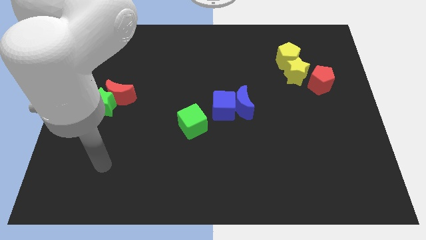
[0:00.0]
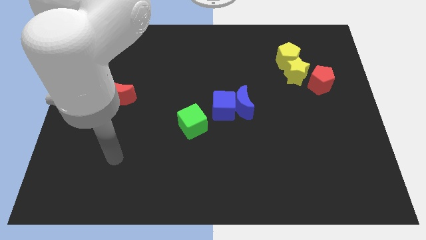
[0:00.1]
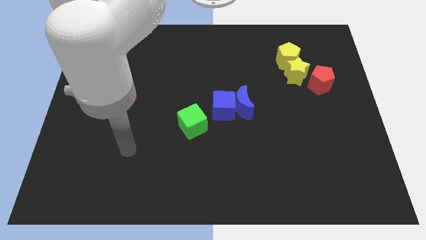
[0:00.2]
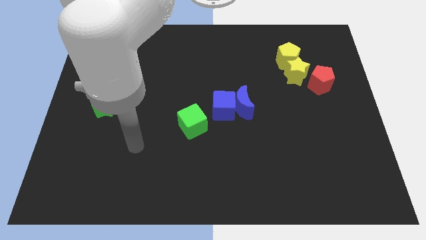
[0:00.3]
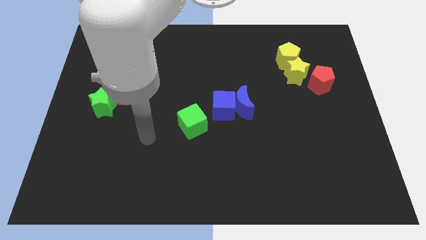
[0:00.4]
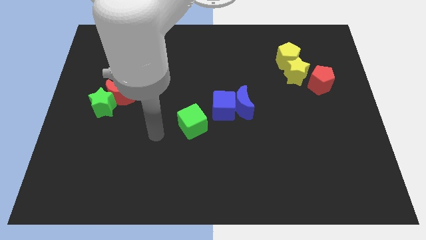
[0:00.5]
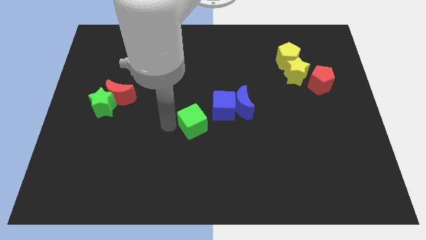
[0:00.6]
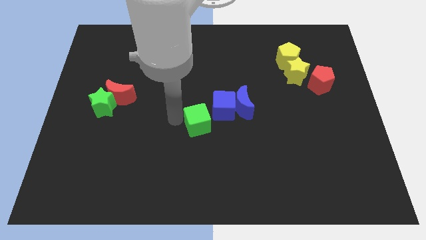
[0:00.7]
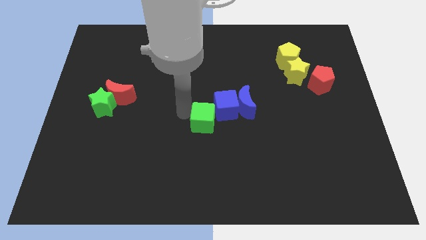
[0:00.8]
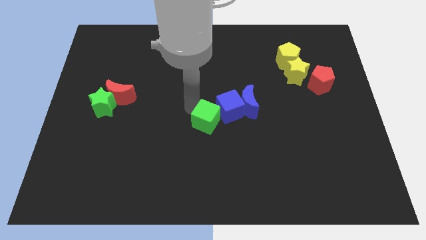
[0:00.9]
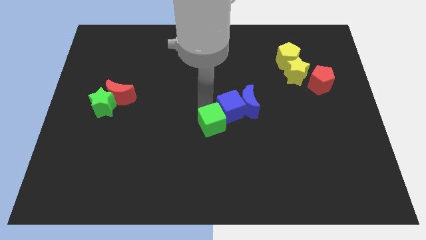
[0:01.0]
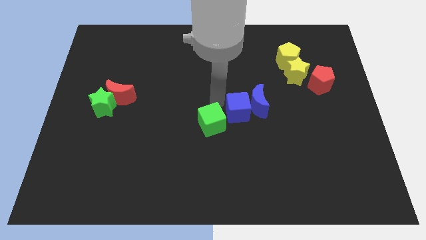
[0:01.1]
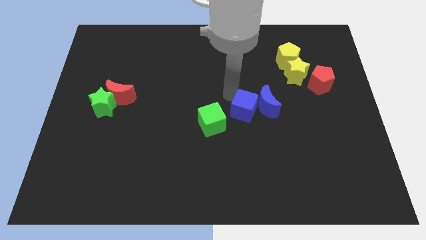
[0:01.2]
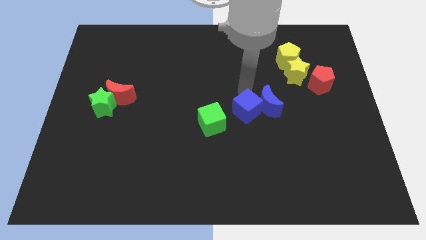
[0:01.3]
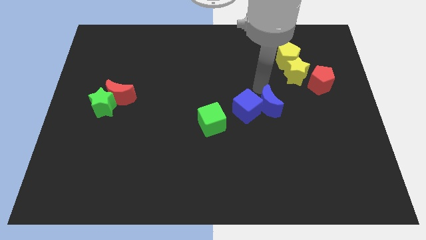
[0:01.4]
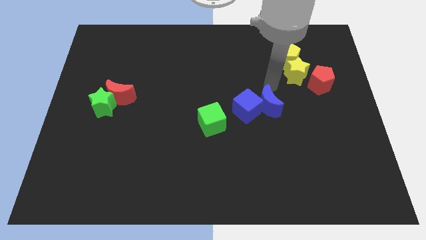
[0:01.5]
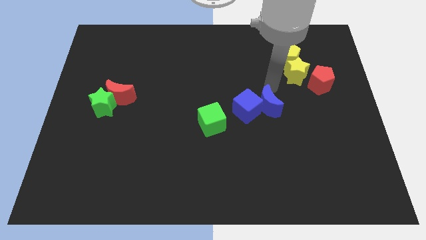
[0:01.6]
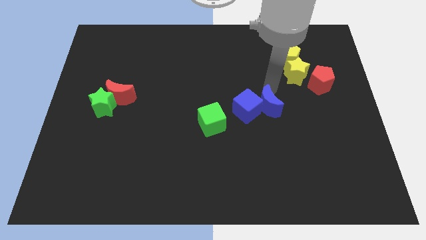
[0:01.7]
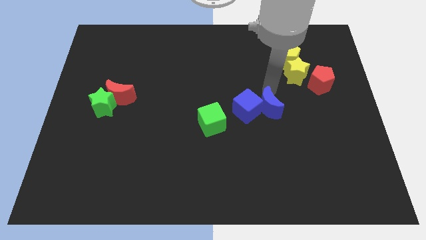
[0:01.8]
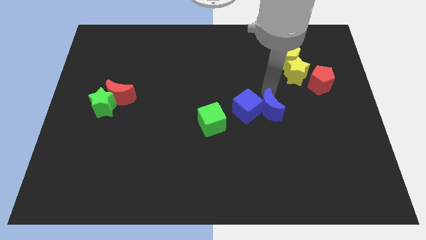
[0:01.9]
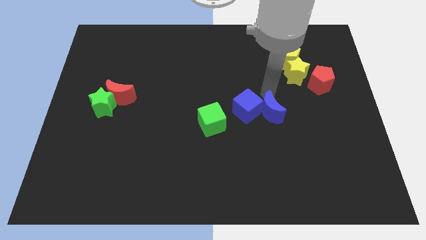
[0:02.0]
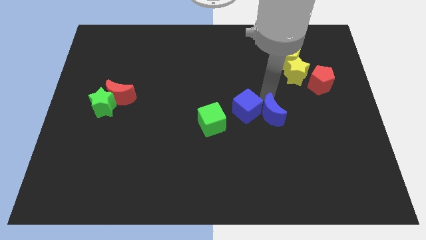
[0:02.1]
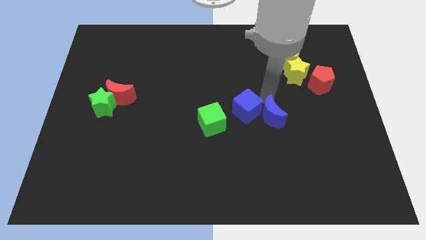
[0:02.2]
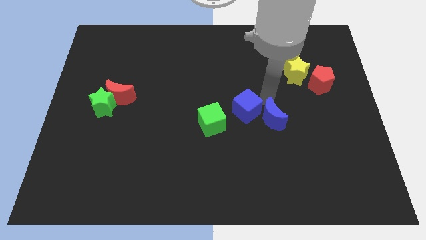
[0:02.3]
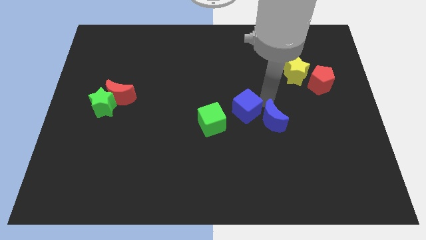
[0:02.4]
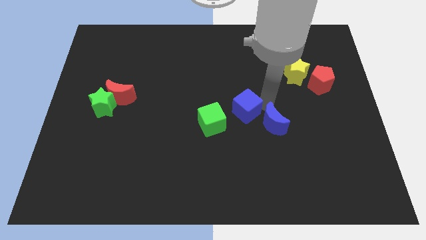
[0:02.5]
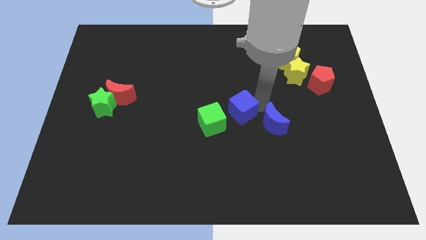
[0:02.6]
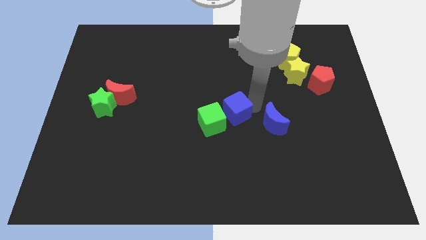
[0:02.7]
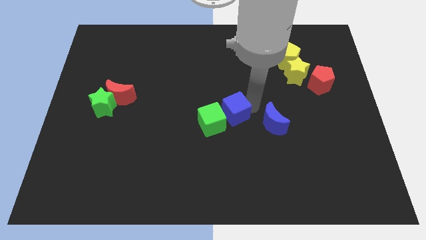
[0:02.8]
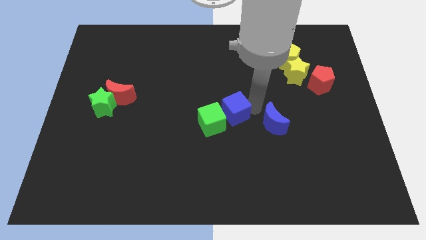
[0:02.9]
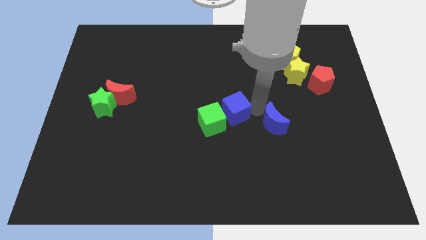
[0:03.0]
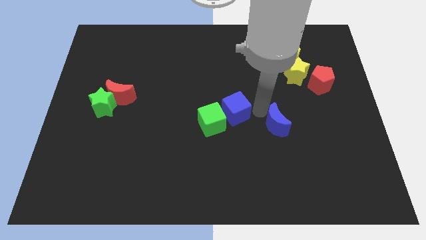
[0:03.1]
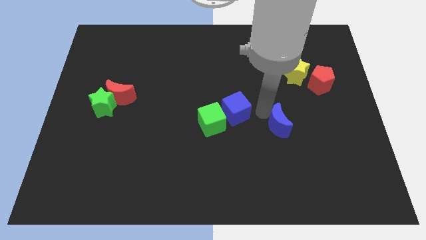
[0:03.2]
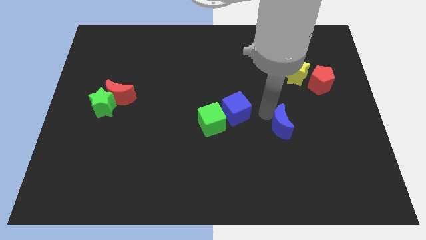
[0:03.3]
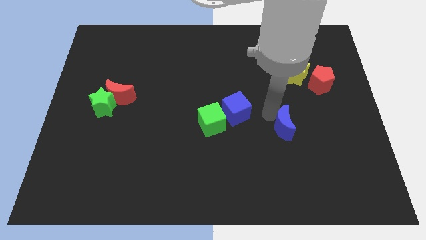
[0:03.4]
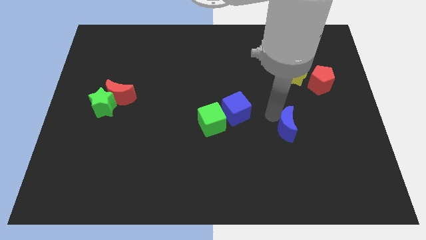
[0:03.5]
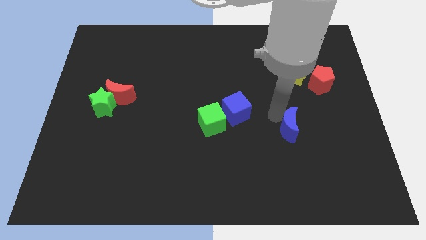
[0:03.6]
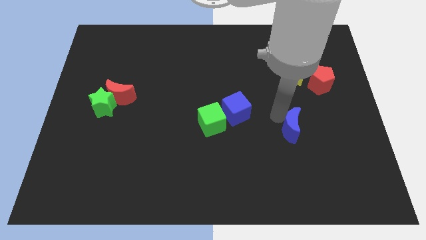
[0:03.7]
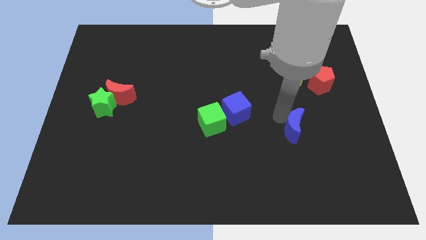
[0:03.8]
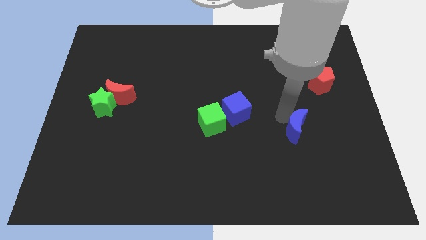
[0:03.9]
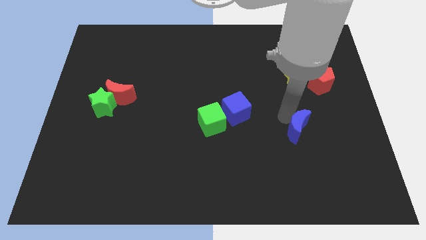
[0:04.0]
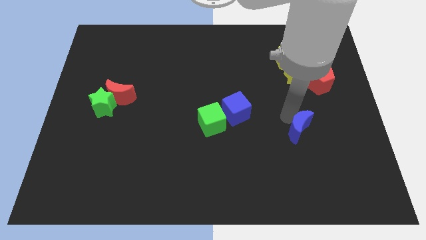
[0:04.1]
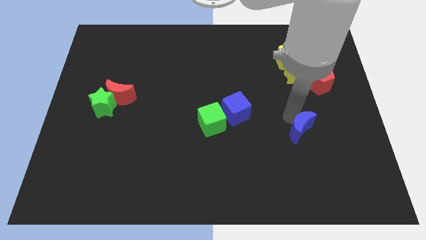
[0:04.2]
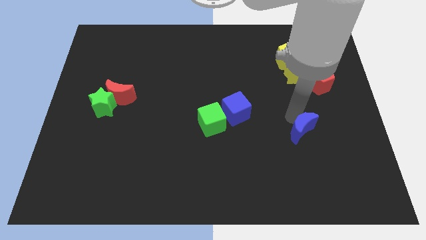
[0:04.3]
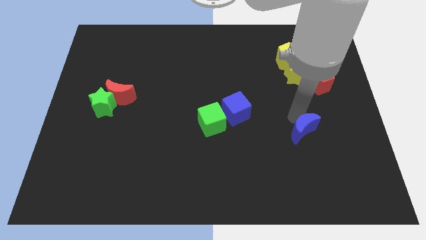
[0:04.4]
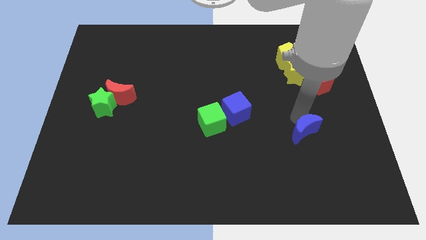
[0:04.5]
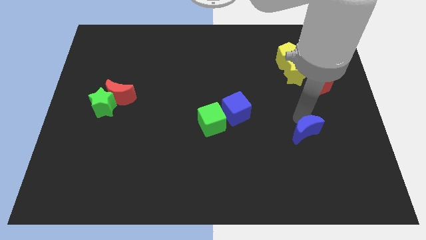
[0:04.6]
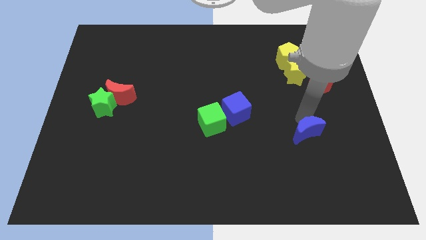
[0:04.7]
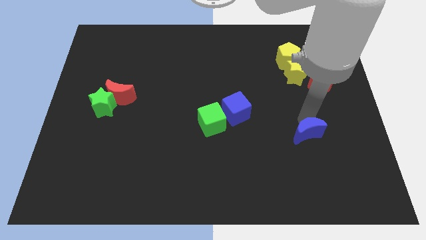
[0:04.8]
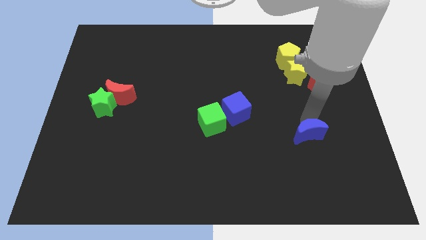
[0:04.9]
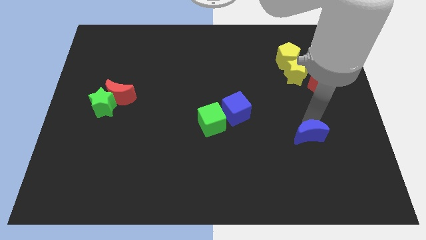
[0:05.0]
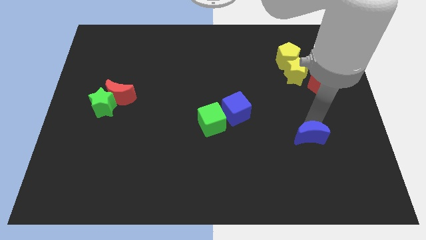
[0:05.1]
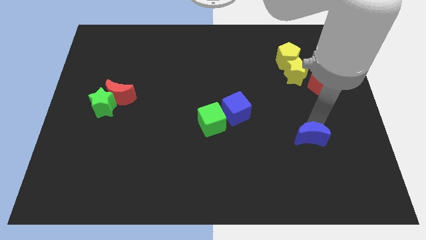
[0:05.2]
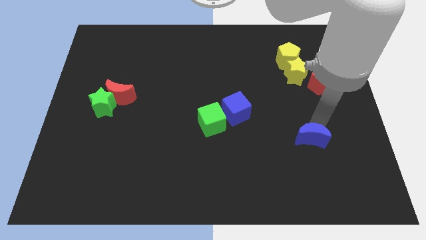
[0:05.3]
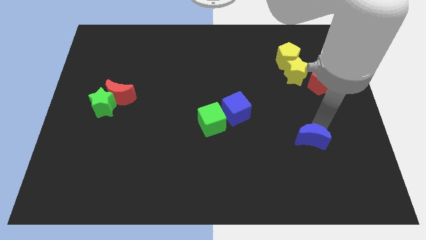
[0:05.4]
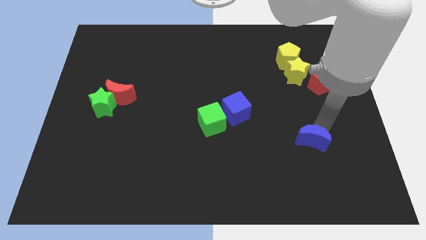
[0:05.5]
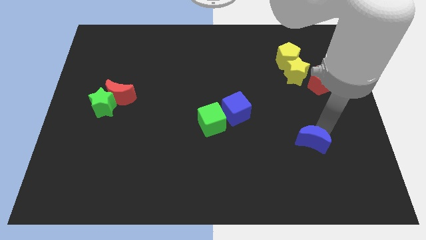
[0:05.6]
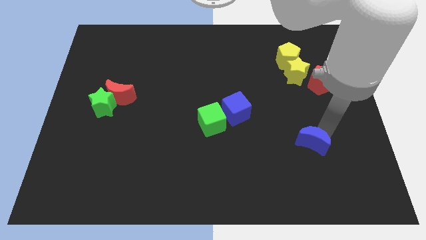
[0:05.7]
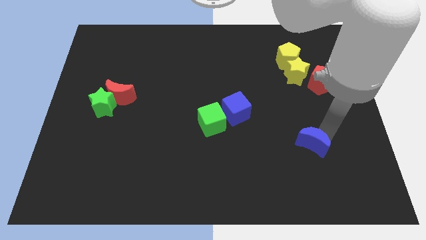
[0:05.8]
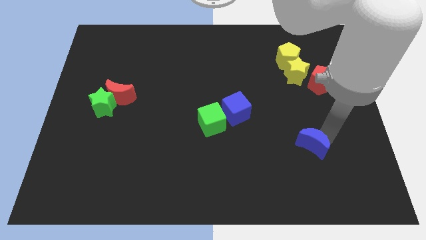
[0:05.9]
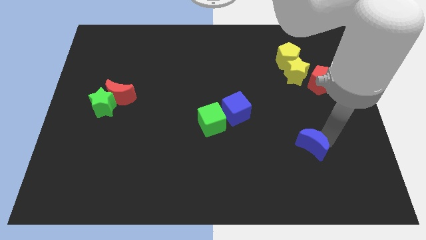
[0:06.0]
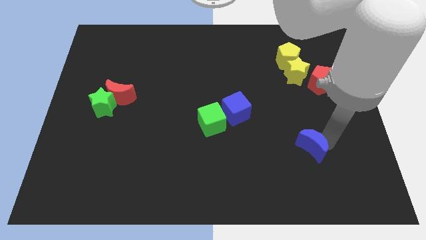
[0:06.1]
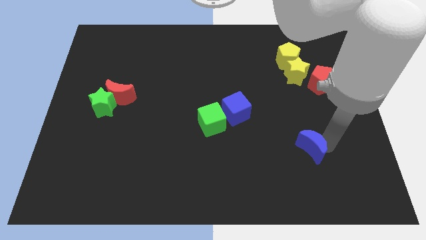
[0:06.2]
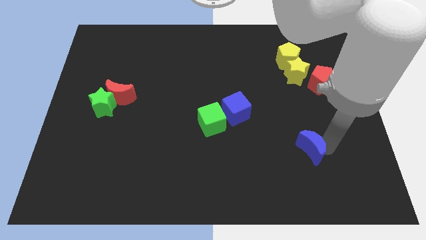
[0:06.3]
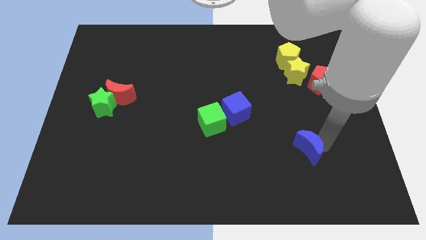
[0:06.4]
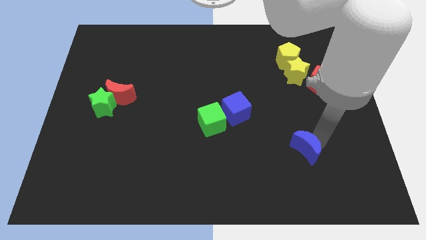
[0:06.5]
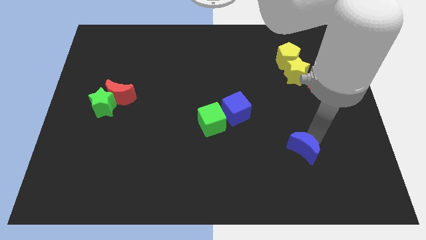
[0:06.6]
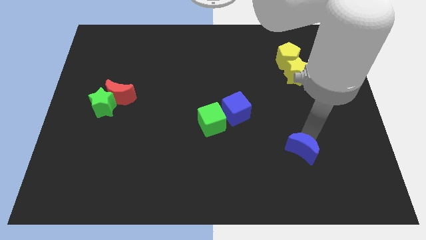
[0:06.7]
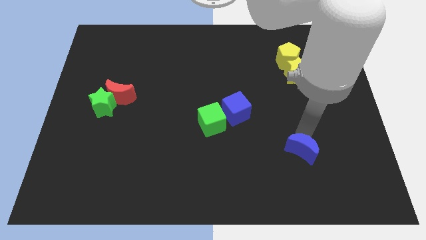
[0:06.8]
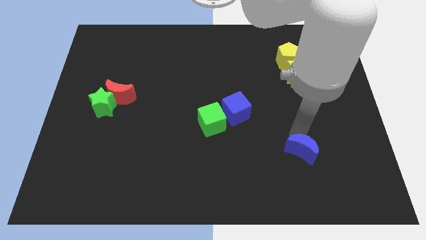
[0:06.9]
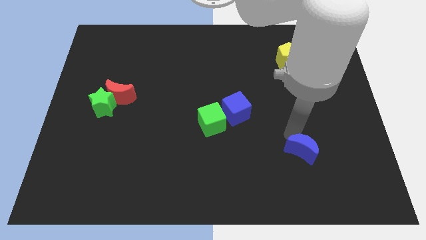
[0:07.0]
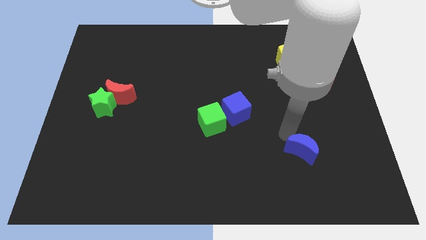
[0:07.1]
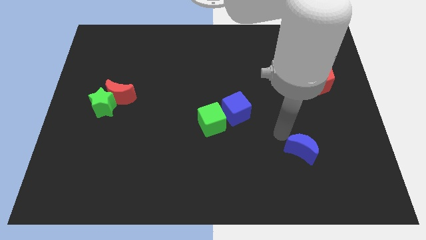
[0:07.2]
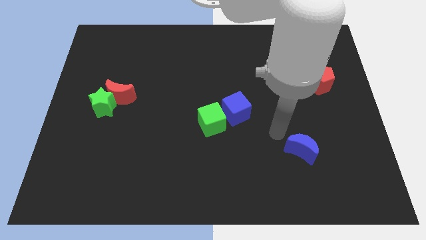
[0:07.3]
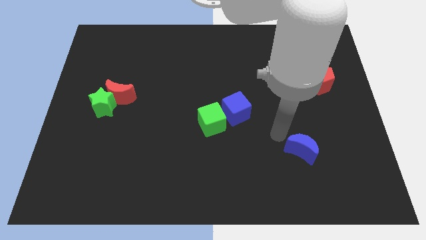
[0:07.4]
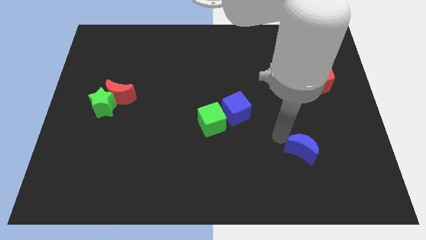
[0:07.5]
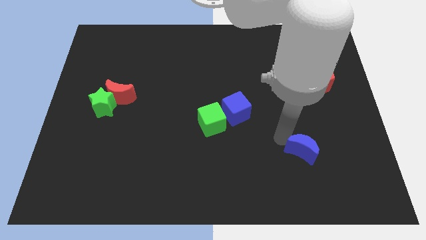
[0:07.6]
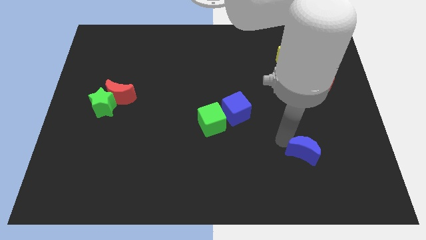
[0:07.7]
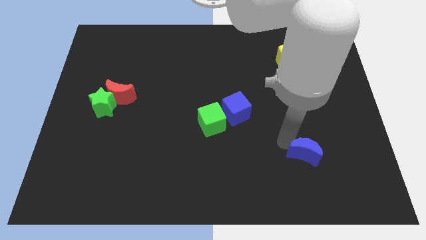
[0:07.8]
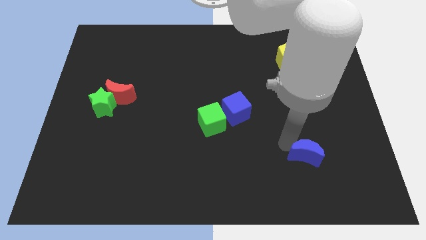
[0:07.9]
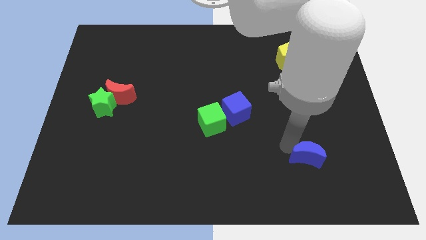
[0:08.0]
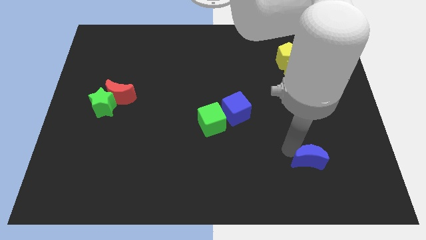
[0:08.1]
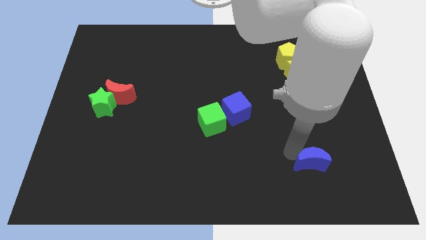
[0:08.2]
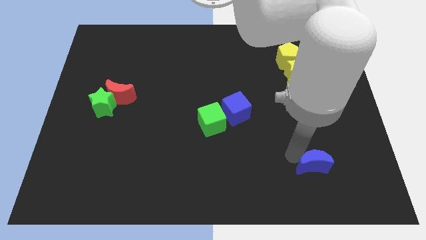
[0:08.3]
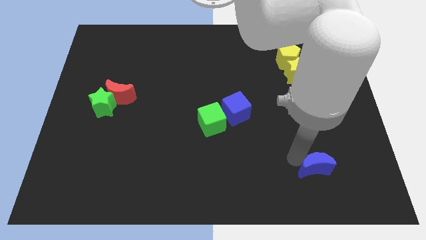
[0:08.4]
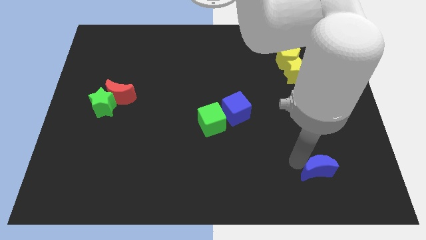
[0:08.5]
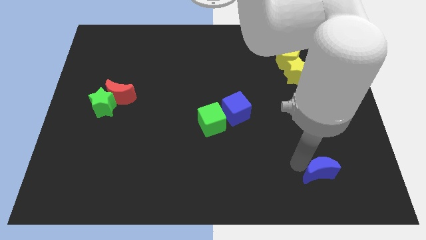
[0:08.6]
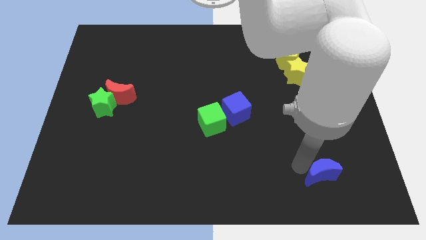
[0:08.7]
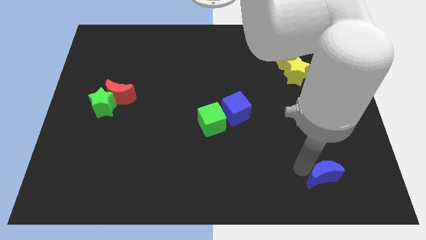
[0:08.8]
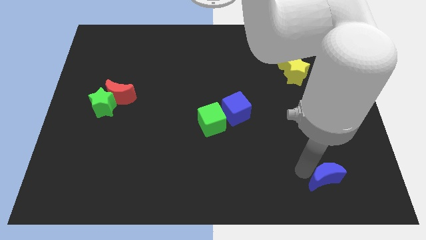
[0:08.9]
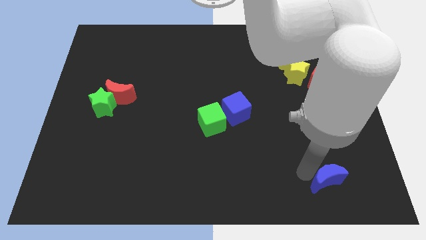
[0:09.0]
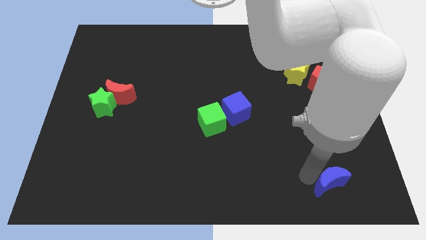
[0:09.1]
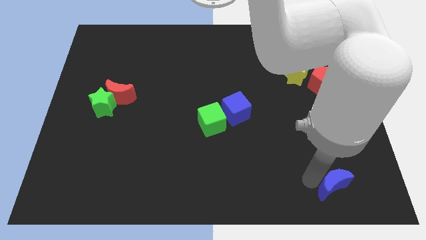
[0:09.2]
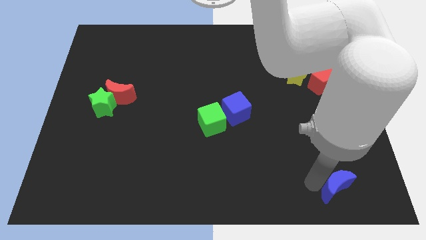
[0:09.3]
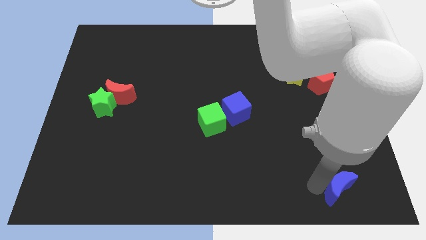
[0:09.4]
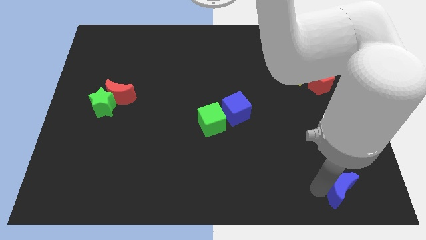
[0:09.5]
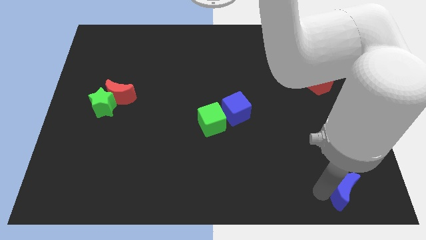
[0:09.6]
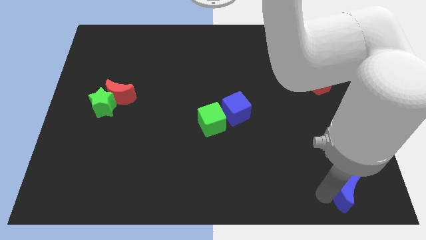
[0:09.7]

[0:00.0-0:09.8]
slide the blue moon to the bottom right corner
